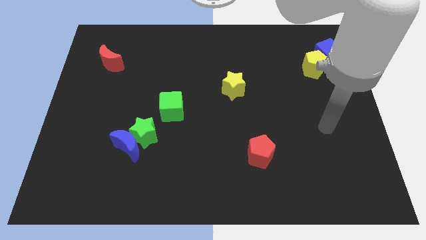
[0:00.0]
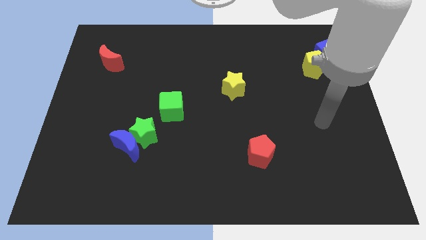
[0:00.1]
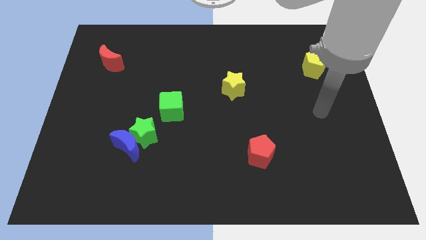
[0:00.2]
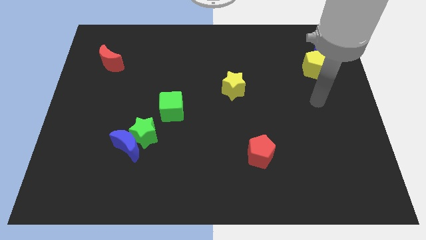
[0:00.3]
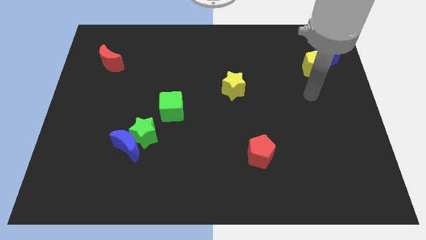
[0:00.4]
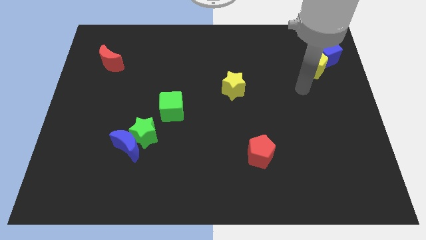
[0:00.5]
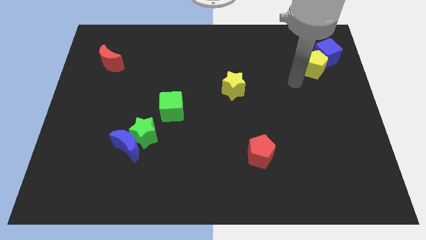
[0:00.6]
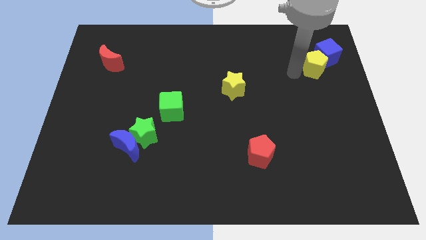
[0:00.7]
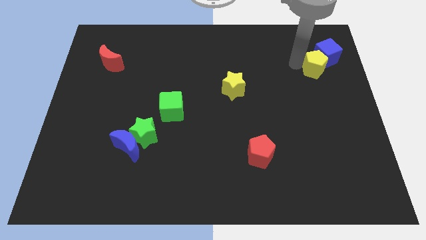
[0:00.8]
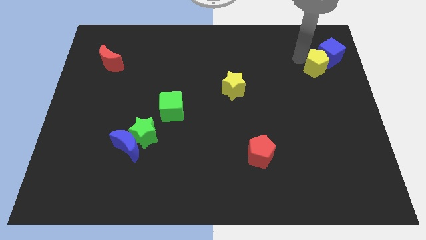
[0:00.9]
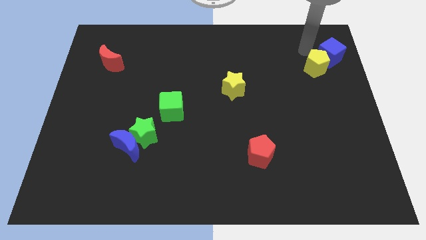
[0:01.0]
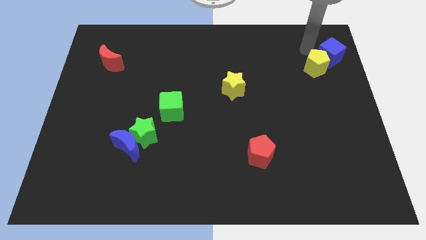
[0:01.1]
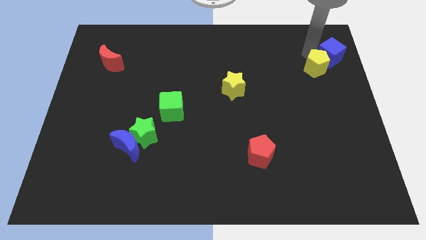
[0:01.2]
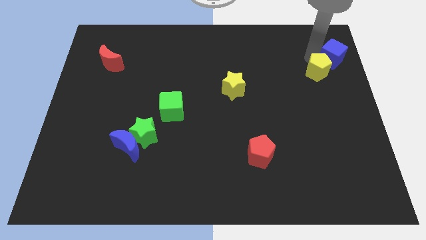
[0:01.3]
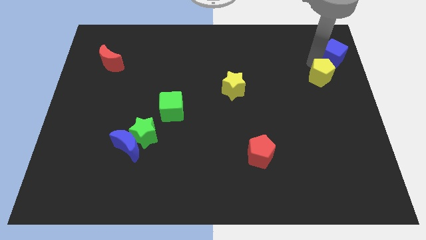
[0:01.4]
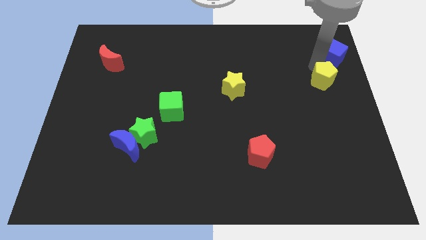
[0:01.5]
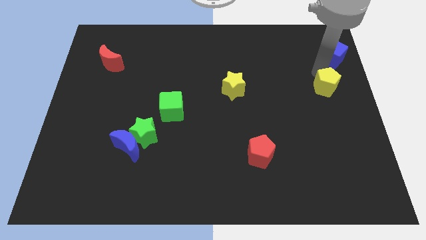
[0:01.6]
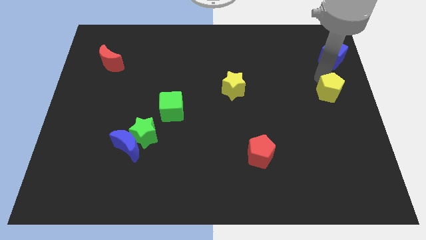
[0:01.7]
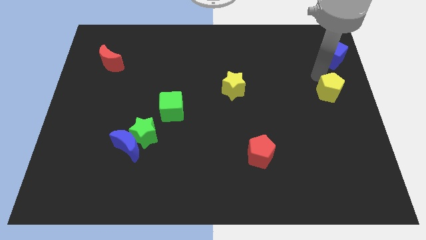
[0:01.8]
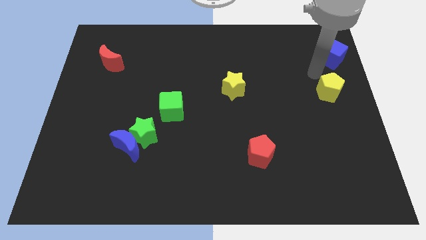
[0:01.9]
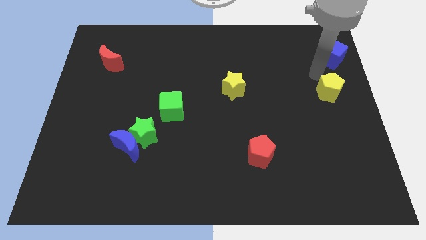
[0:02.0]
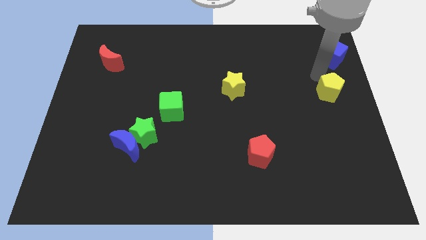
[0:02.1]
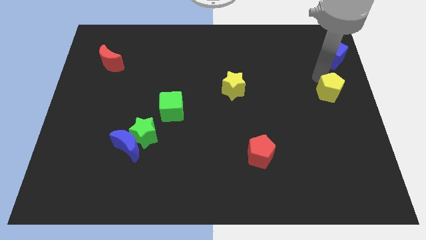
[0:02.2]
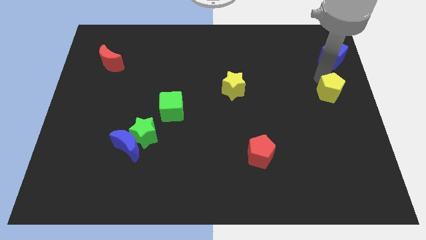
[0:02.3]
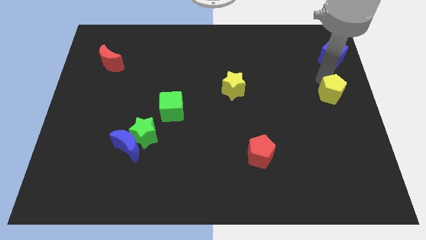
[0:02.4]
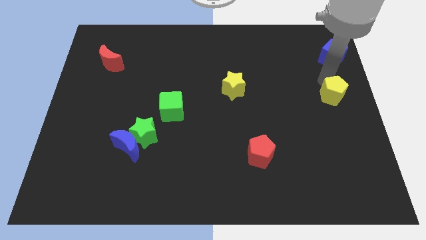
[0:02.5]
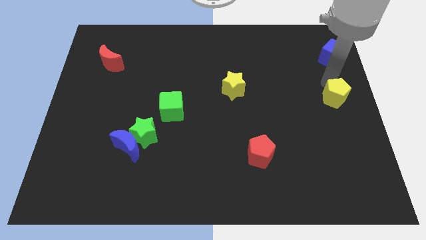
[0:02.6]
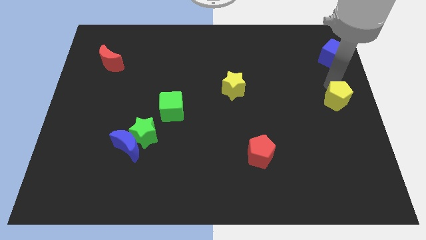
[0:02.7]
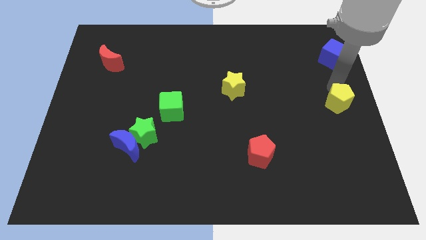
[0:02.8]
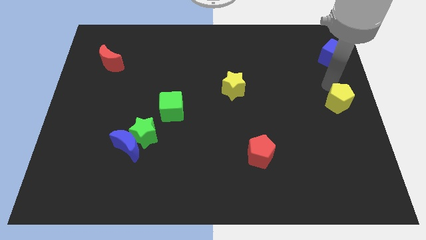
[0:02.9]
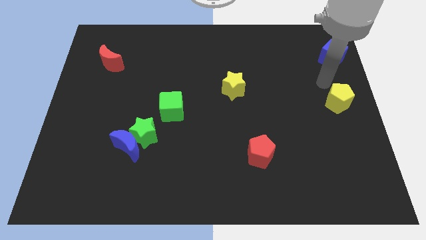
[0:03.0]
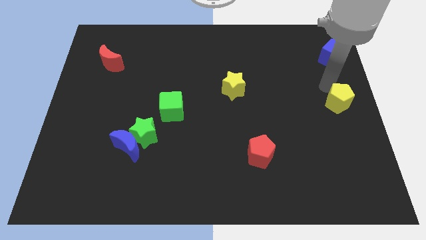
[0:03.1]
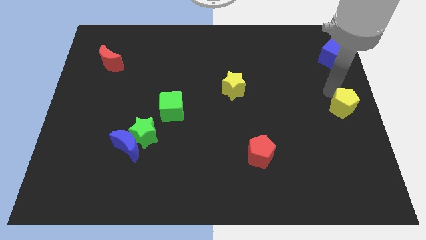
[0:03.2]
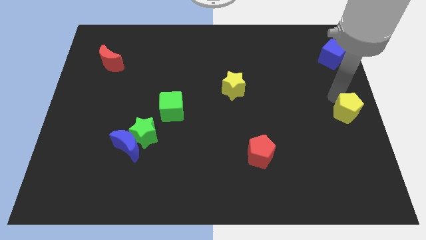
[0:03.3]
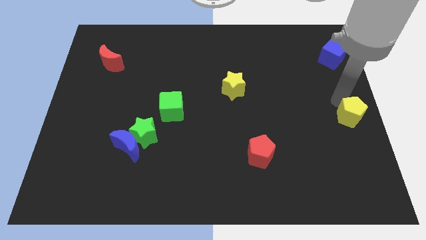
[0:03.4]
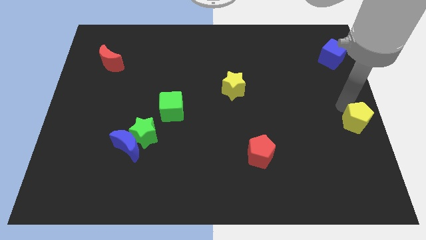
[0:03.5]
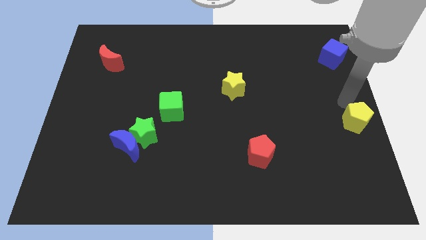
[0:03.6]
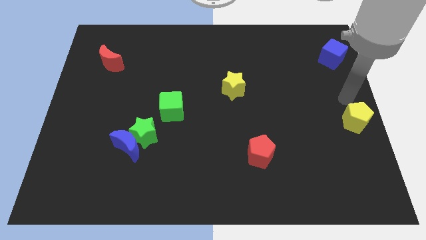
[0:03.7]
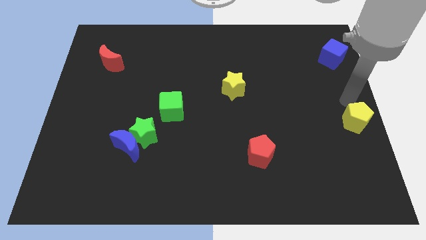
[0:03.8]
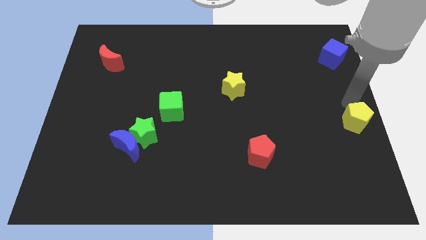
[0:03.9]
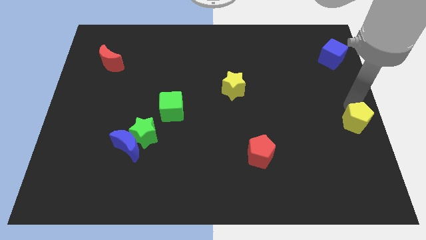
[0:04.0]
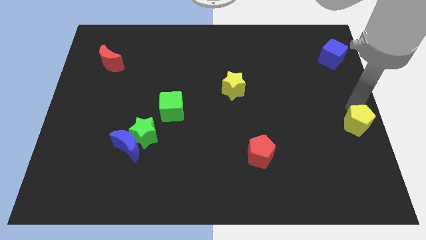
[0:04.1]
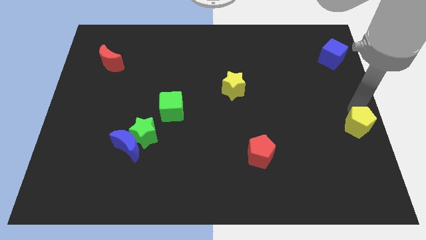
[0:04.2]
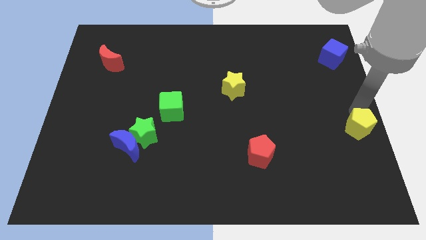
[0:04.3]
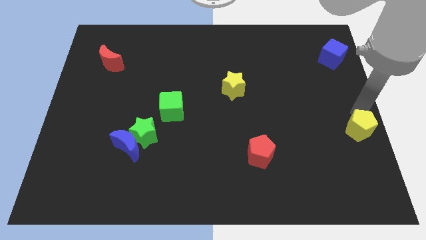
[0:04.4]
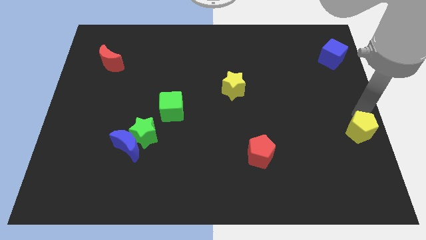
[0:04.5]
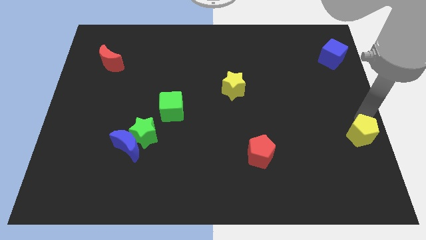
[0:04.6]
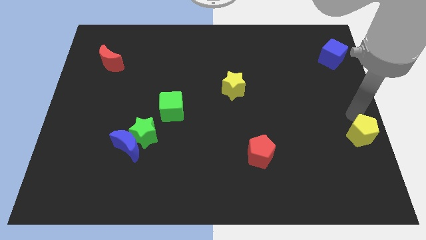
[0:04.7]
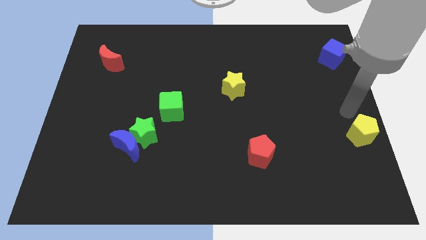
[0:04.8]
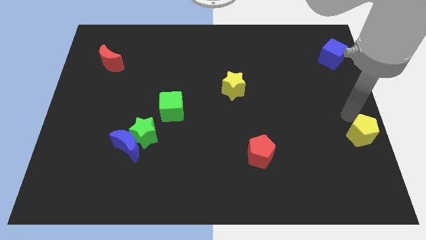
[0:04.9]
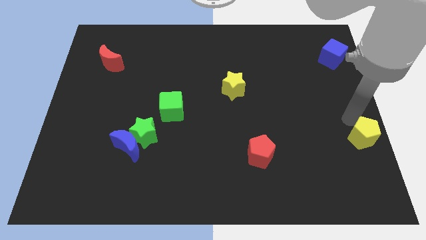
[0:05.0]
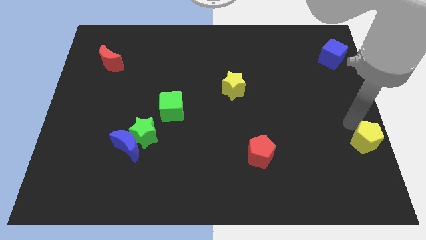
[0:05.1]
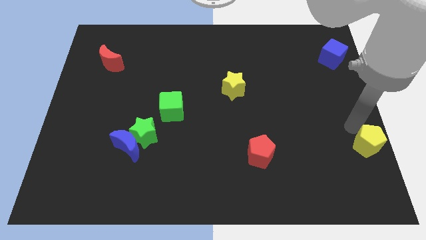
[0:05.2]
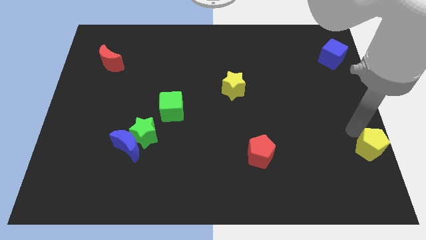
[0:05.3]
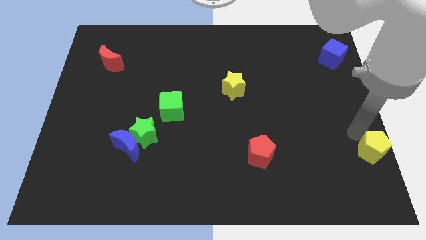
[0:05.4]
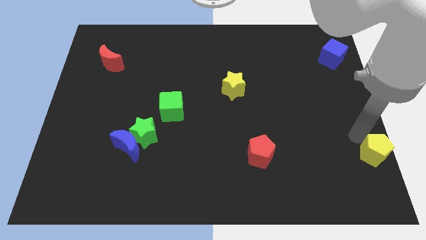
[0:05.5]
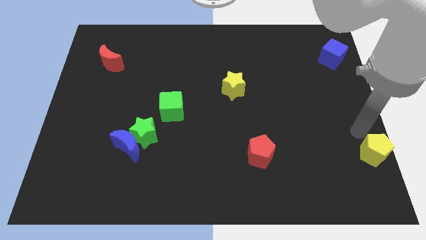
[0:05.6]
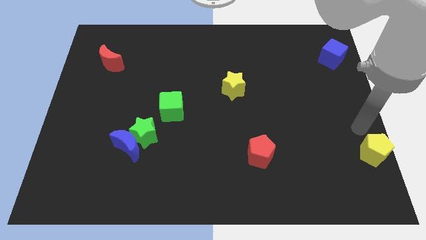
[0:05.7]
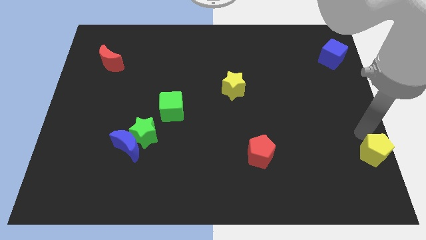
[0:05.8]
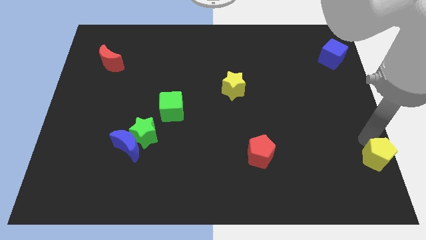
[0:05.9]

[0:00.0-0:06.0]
move the yellow pentagon to the lower right corner

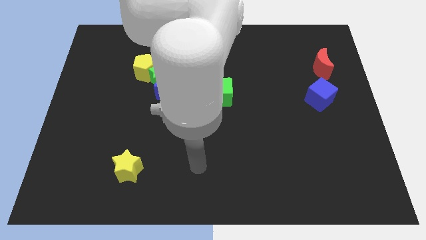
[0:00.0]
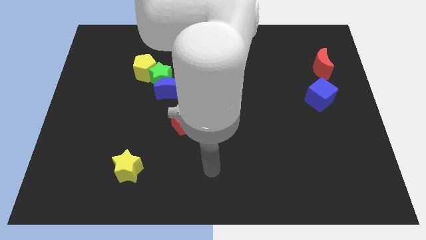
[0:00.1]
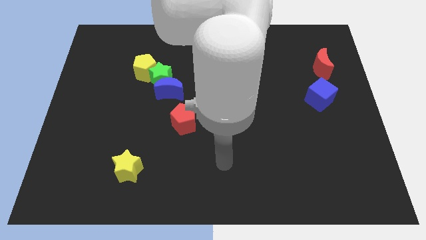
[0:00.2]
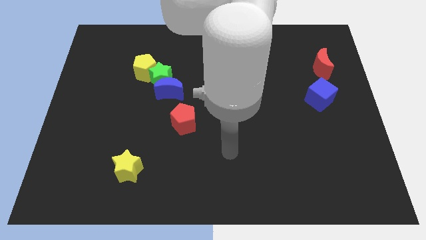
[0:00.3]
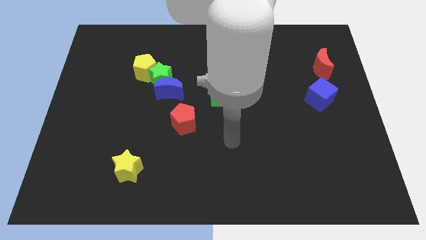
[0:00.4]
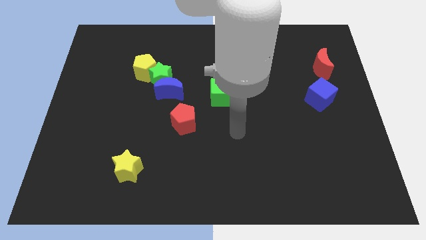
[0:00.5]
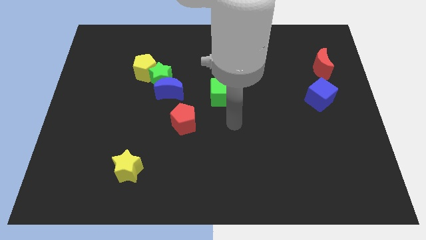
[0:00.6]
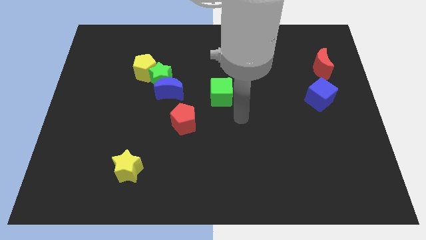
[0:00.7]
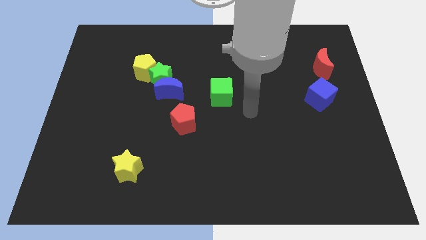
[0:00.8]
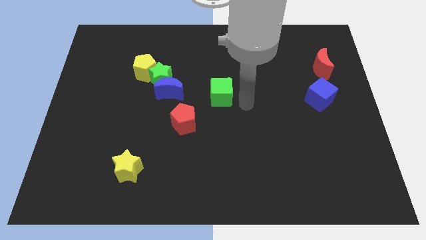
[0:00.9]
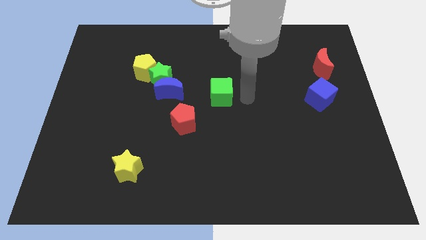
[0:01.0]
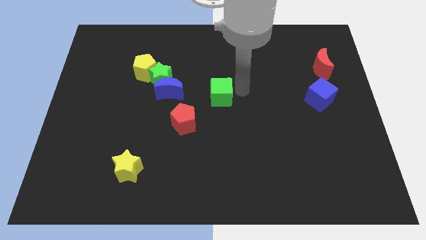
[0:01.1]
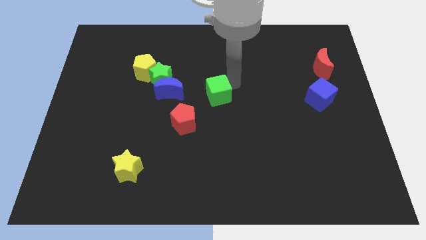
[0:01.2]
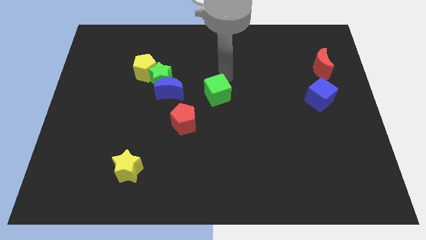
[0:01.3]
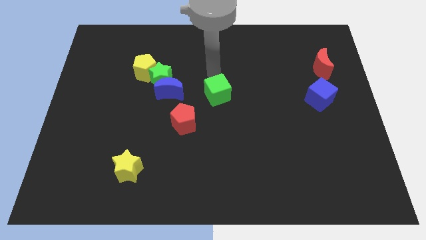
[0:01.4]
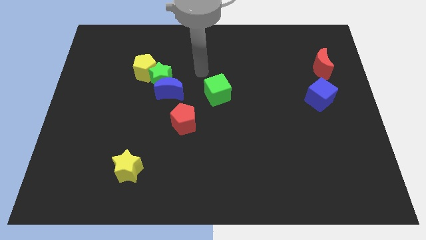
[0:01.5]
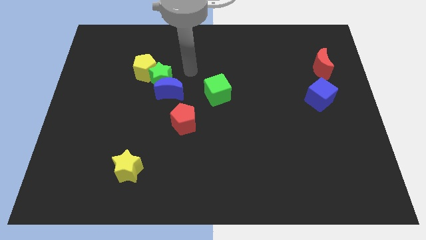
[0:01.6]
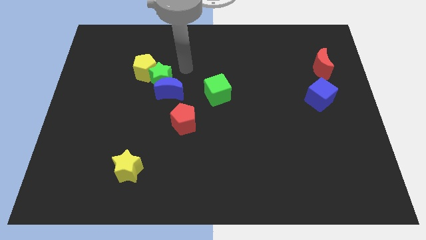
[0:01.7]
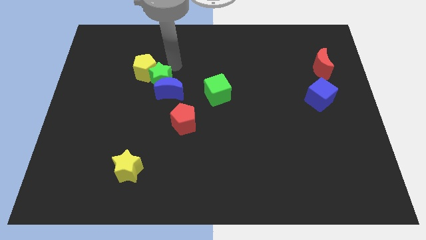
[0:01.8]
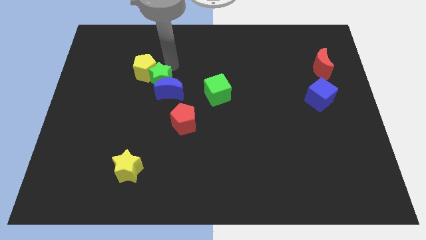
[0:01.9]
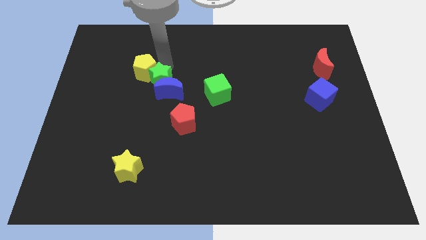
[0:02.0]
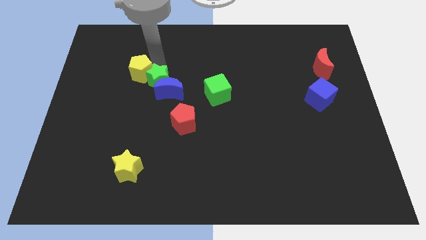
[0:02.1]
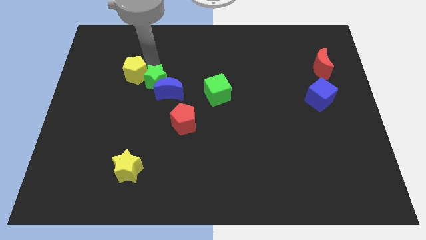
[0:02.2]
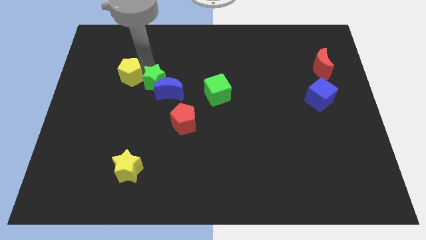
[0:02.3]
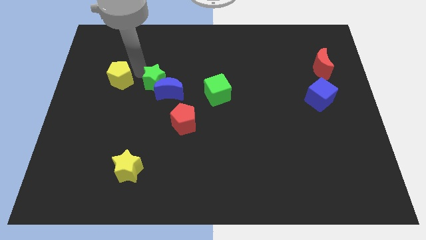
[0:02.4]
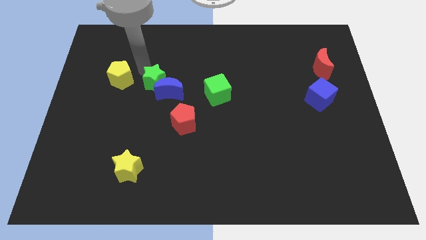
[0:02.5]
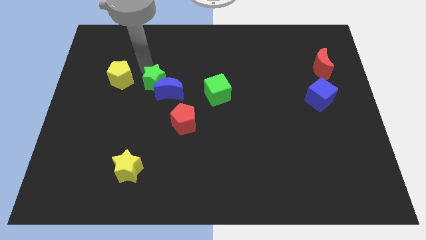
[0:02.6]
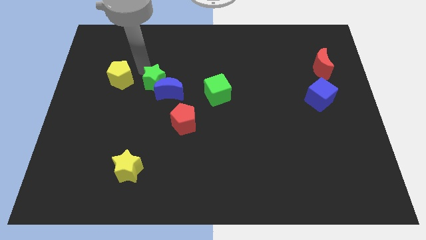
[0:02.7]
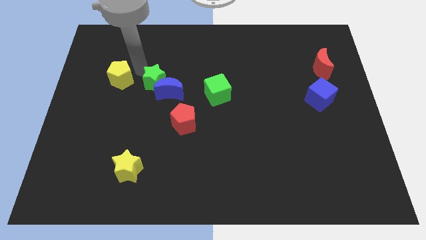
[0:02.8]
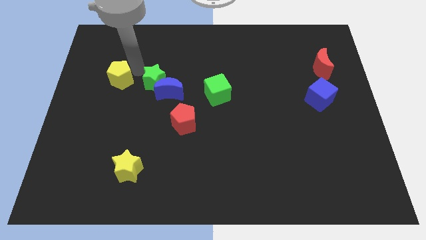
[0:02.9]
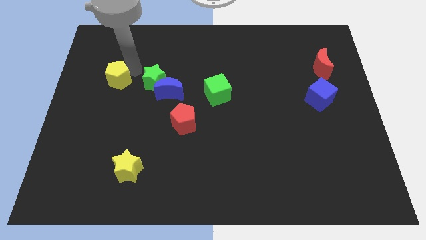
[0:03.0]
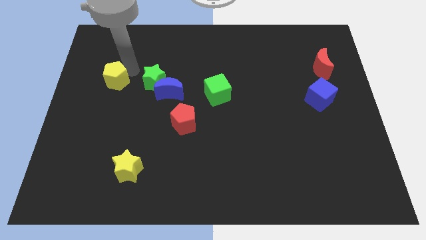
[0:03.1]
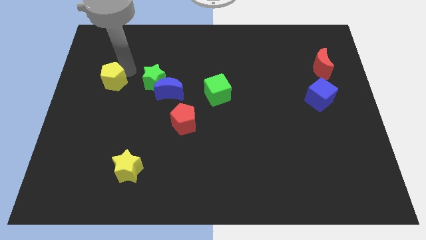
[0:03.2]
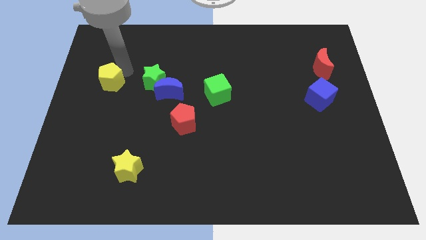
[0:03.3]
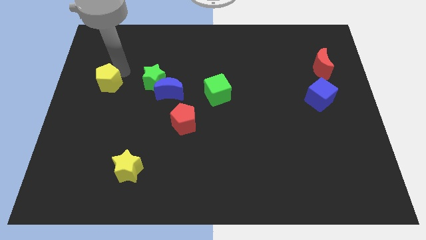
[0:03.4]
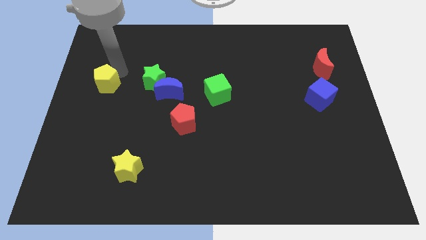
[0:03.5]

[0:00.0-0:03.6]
push the yellow pentagon to the center left
